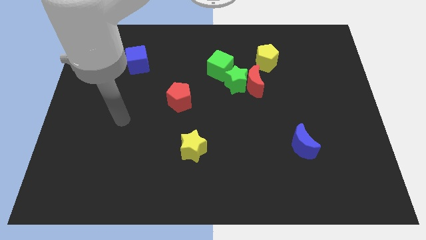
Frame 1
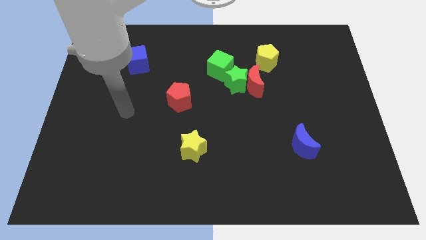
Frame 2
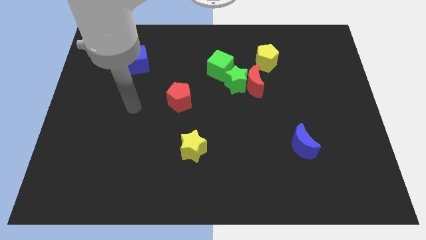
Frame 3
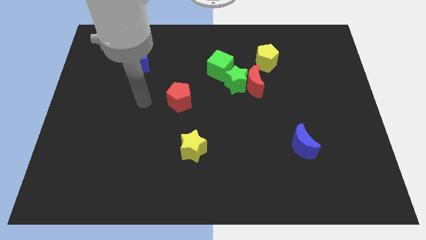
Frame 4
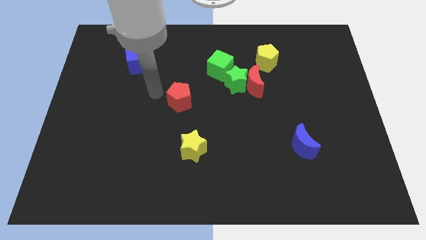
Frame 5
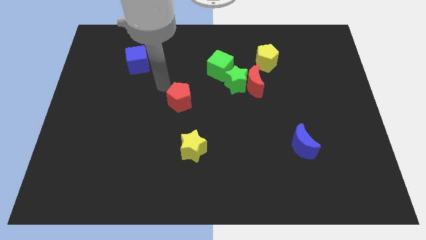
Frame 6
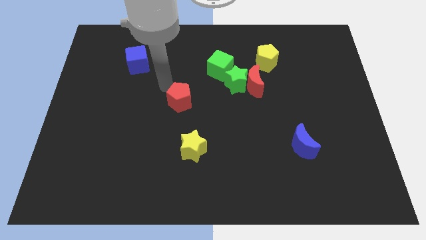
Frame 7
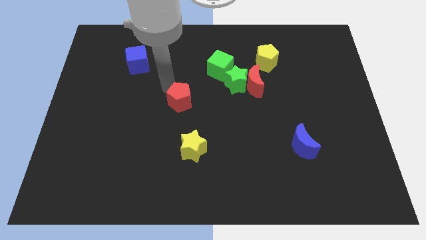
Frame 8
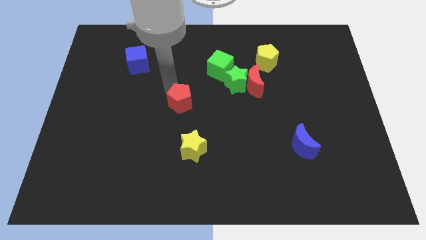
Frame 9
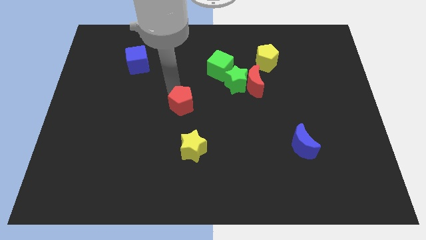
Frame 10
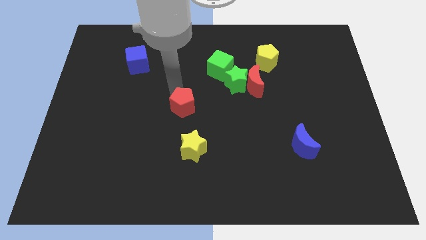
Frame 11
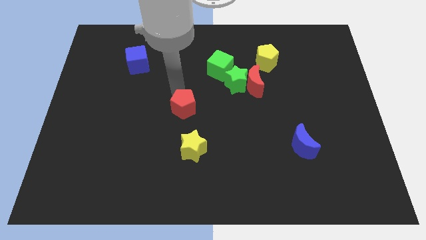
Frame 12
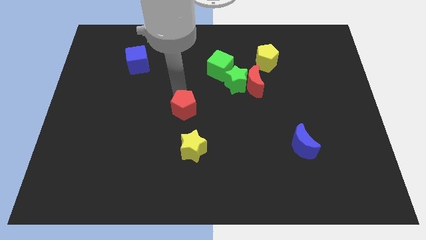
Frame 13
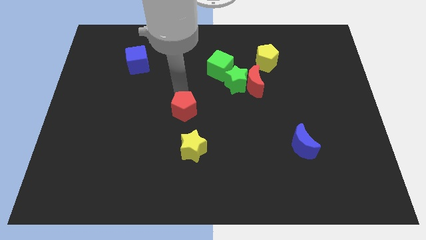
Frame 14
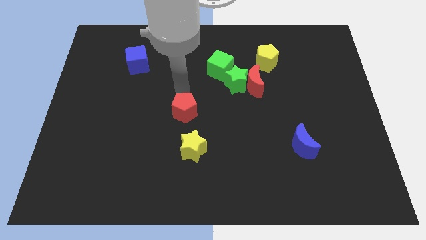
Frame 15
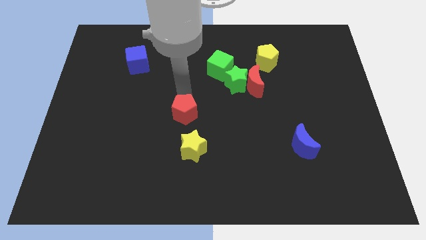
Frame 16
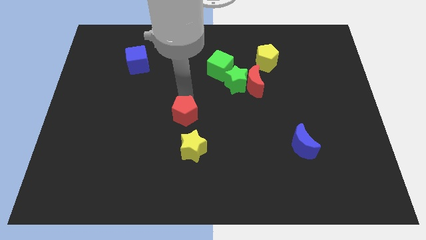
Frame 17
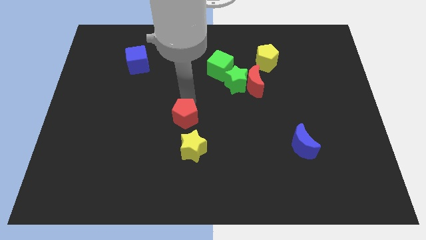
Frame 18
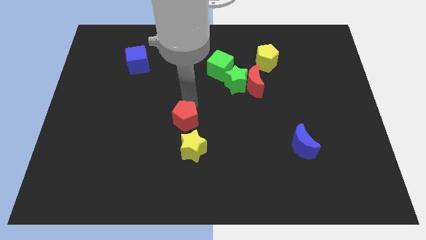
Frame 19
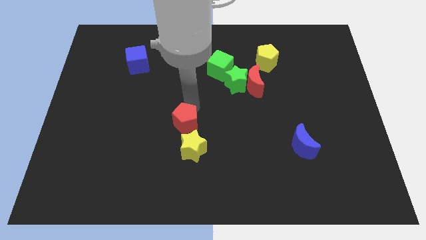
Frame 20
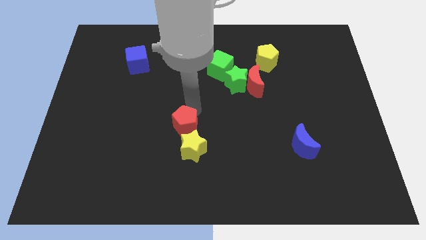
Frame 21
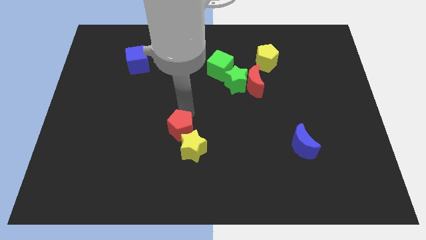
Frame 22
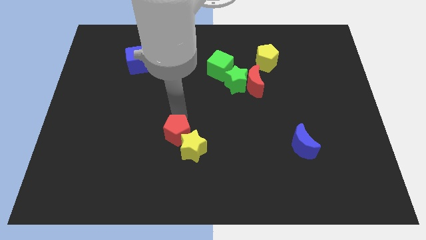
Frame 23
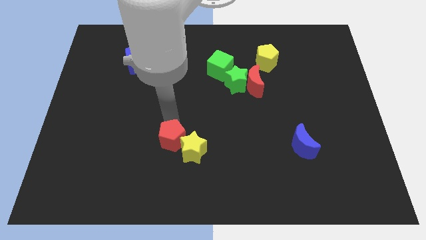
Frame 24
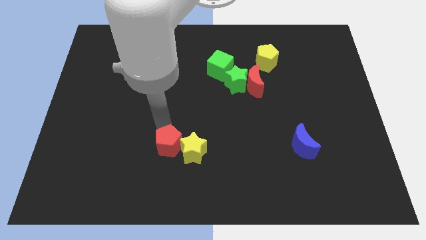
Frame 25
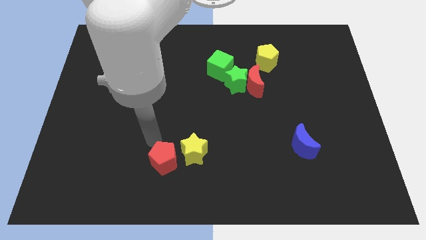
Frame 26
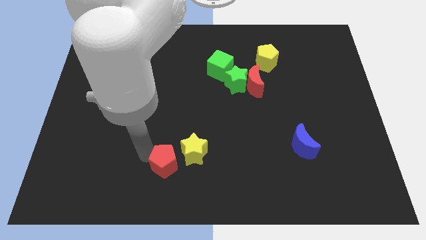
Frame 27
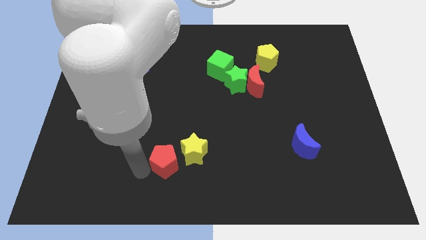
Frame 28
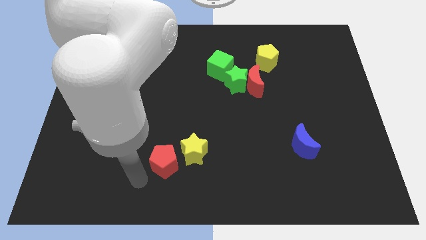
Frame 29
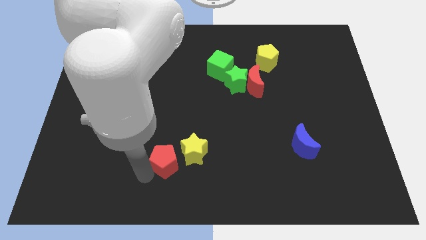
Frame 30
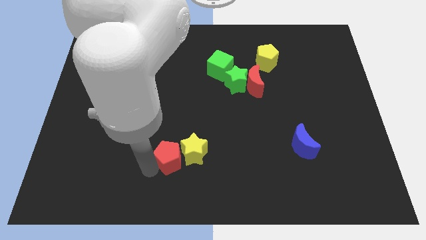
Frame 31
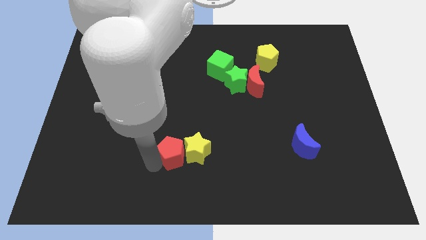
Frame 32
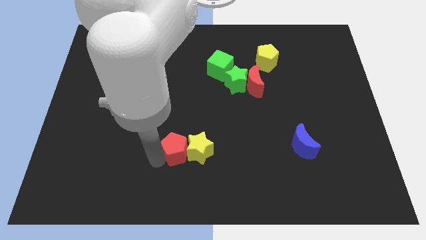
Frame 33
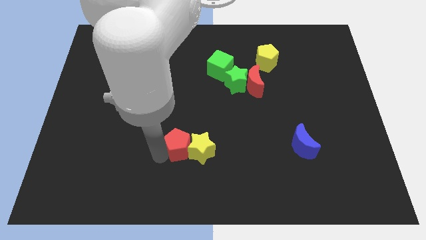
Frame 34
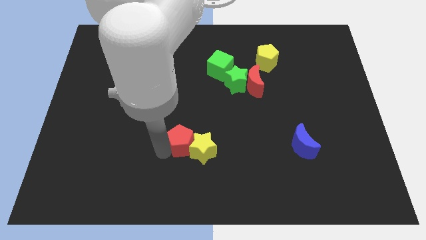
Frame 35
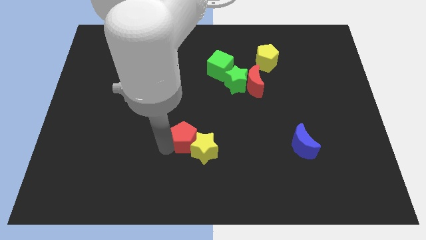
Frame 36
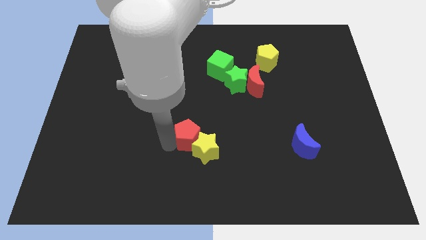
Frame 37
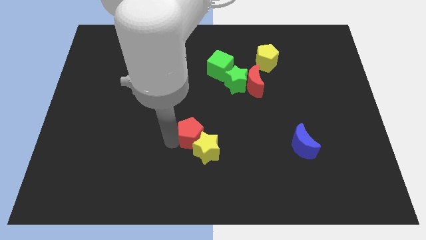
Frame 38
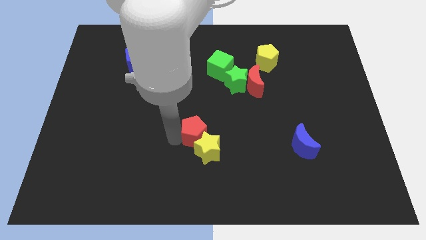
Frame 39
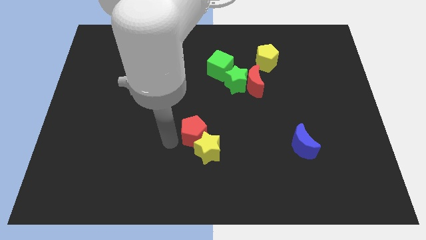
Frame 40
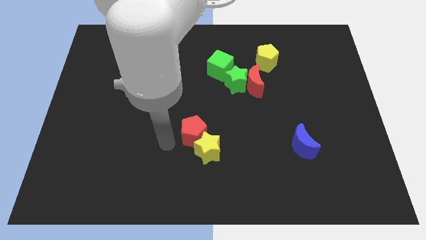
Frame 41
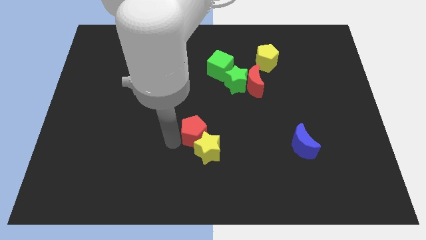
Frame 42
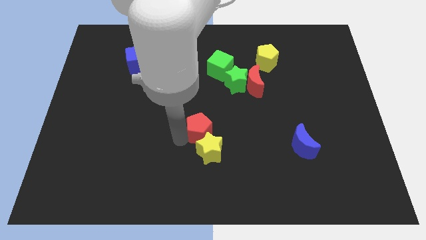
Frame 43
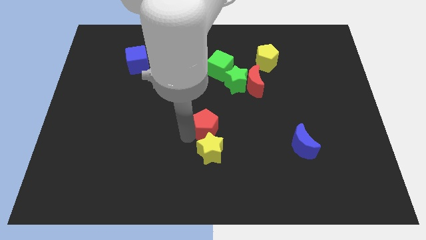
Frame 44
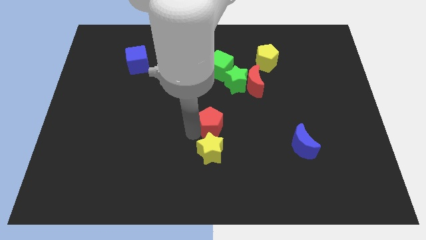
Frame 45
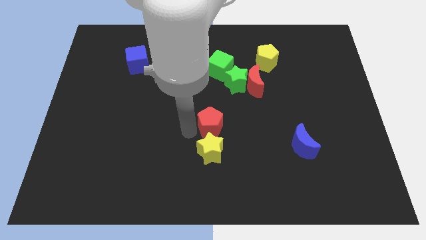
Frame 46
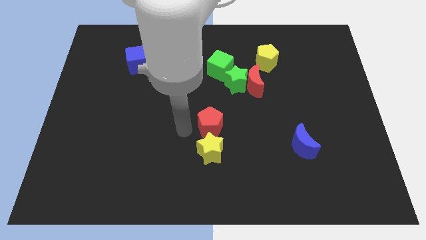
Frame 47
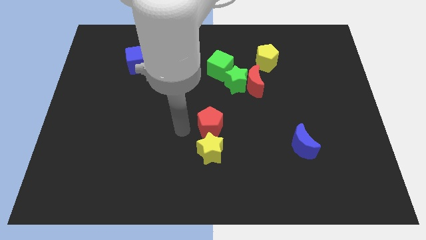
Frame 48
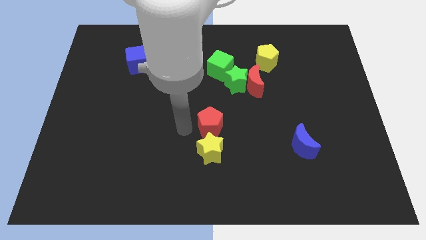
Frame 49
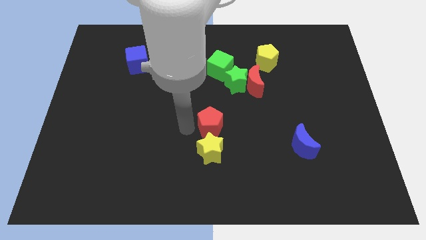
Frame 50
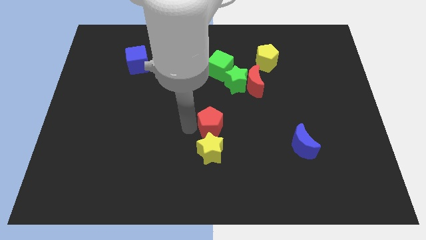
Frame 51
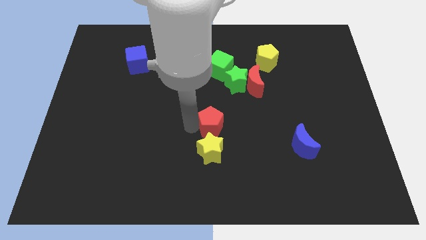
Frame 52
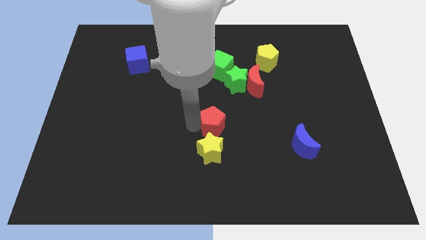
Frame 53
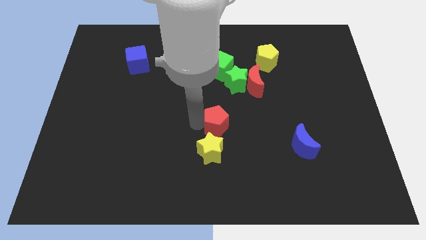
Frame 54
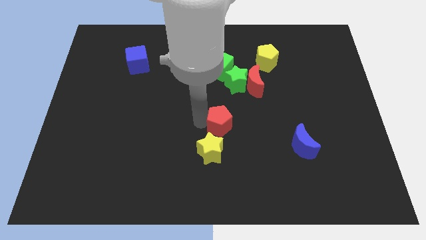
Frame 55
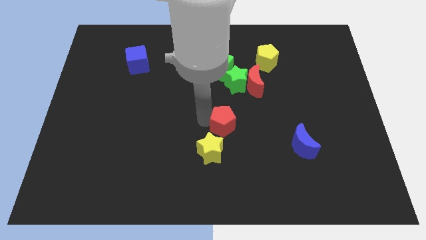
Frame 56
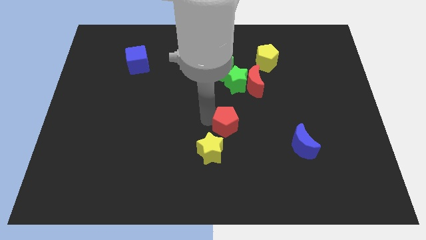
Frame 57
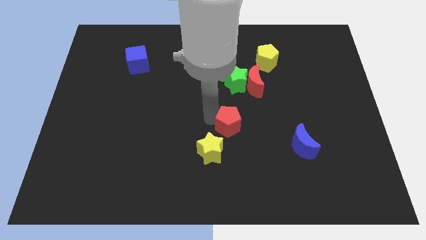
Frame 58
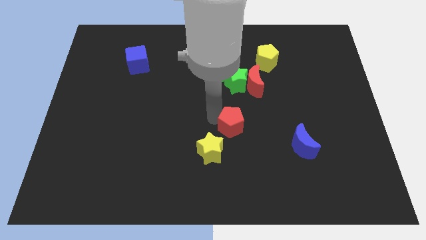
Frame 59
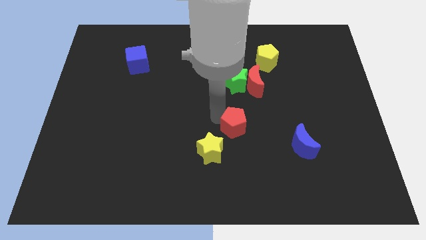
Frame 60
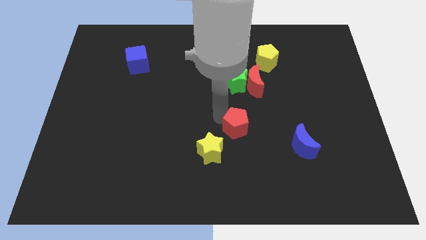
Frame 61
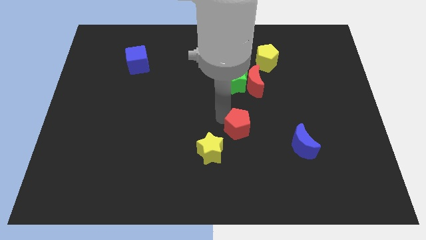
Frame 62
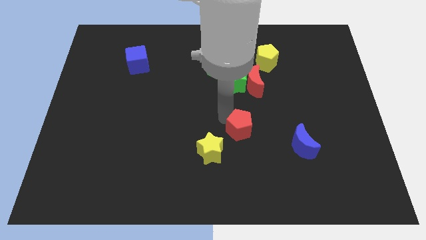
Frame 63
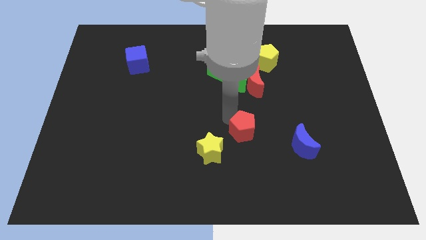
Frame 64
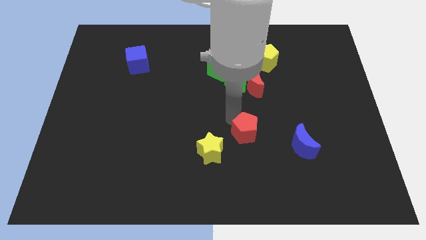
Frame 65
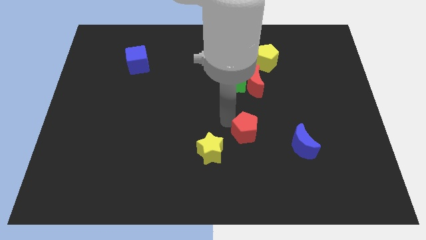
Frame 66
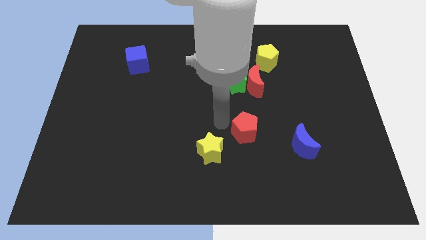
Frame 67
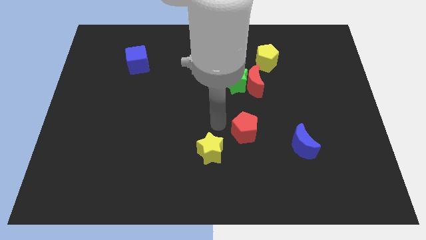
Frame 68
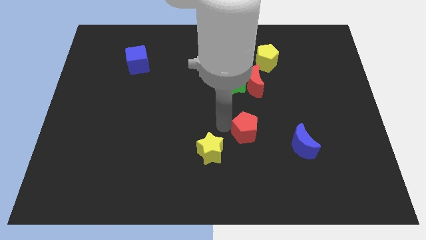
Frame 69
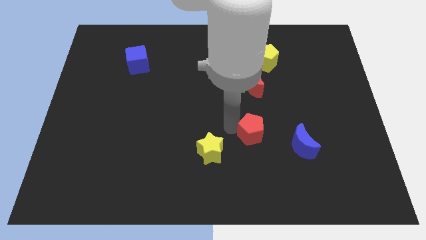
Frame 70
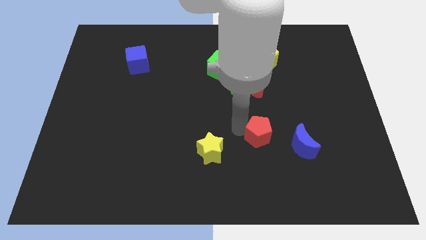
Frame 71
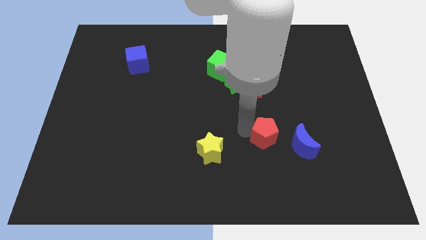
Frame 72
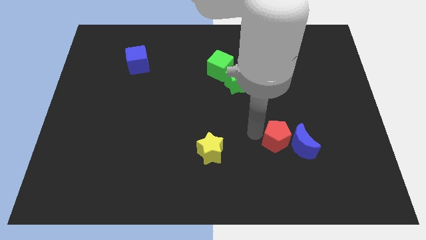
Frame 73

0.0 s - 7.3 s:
push the red pentagon next to the blue moon
